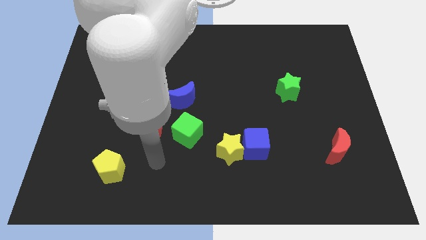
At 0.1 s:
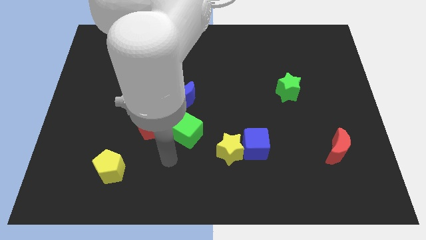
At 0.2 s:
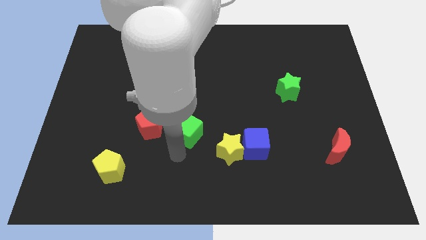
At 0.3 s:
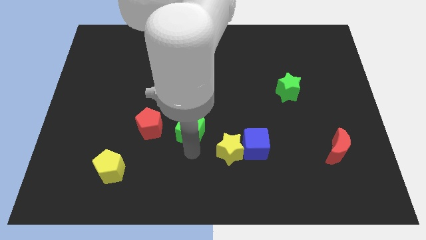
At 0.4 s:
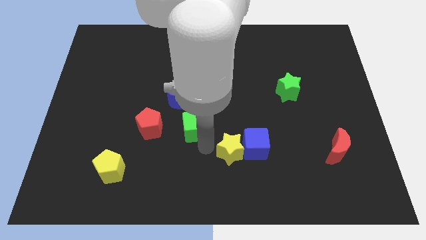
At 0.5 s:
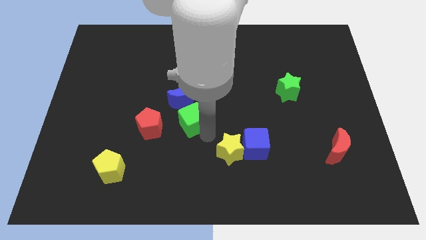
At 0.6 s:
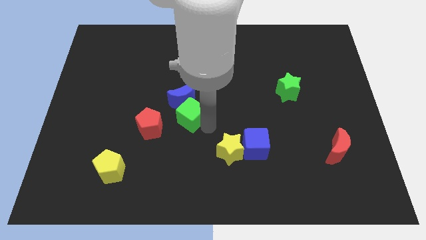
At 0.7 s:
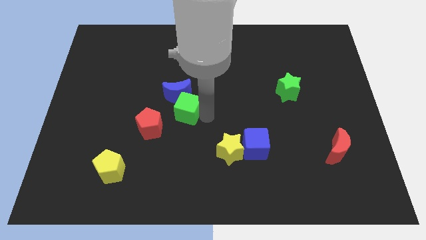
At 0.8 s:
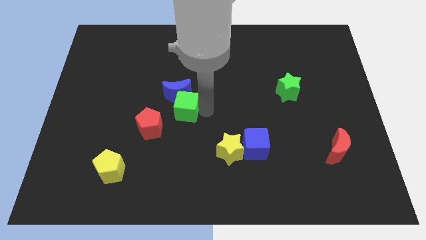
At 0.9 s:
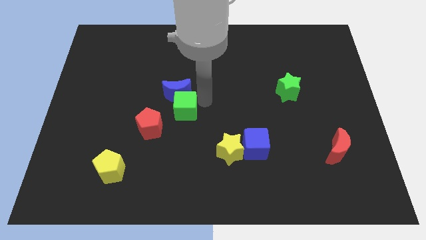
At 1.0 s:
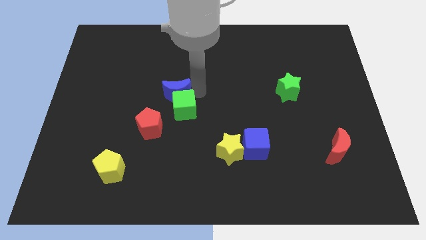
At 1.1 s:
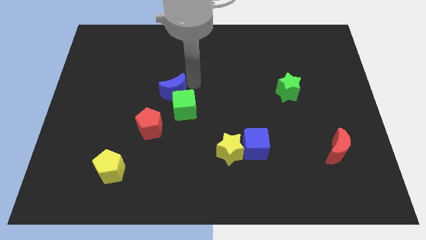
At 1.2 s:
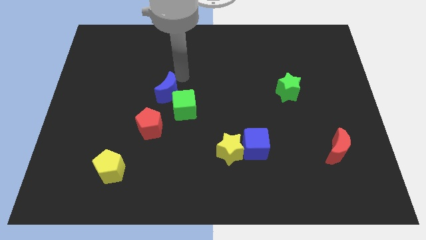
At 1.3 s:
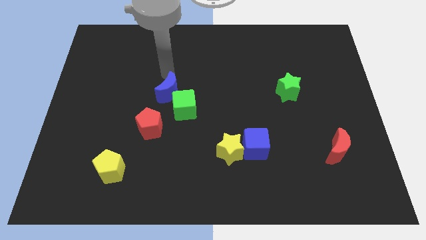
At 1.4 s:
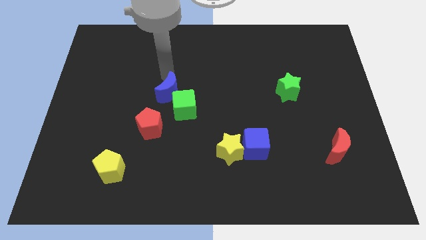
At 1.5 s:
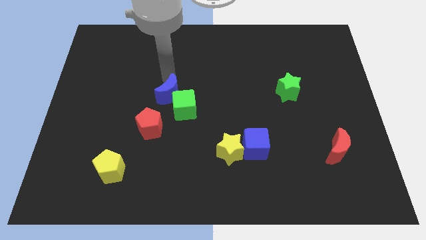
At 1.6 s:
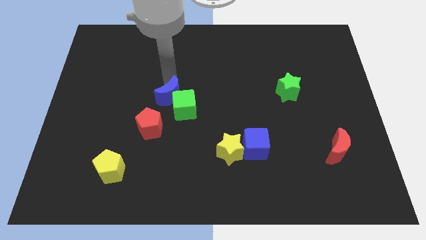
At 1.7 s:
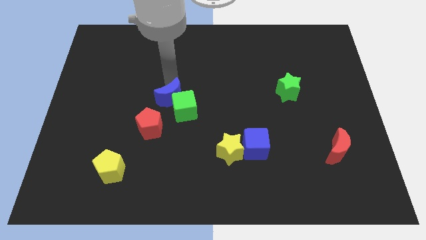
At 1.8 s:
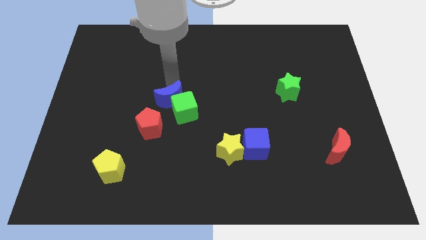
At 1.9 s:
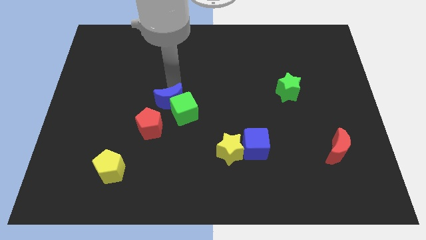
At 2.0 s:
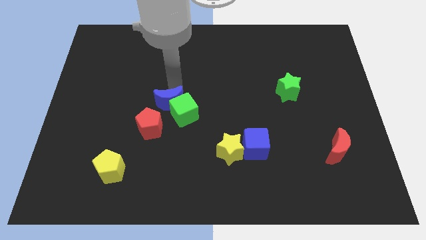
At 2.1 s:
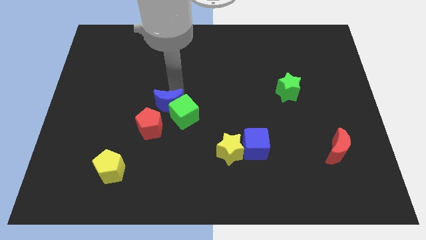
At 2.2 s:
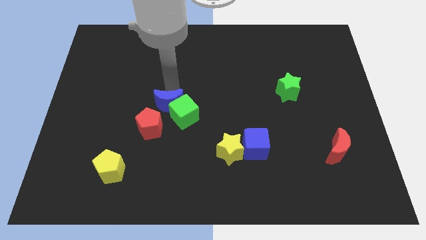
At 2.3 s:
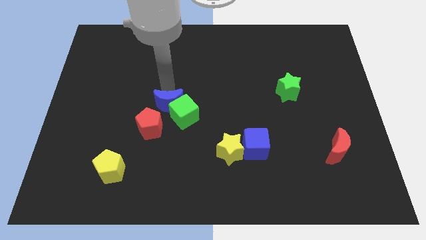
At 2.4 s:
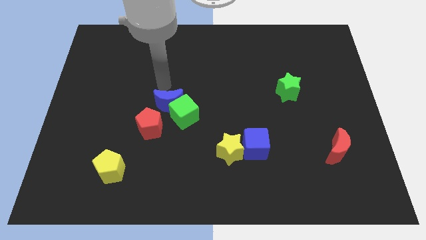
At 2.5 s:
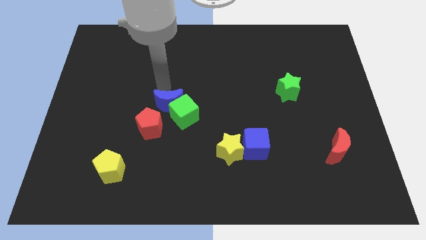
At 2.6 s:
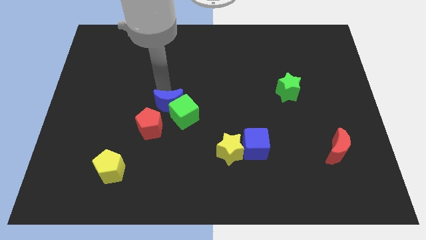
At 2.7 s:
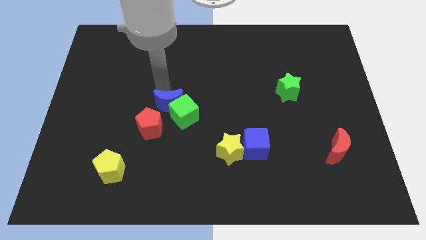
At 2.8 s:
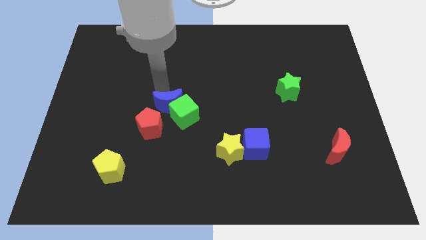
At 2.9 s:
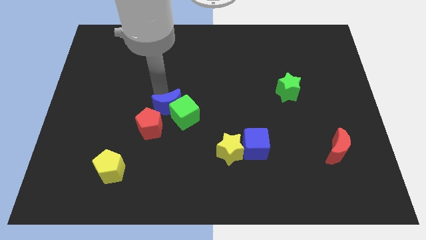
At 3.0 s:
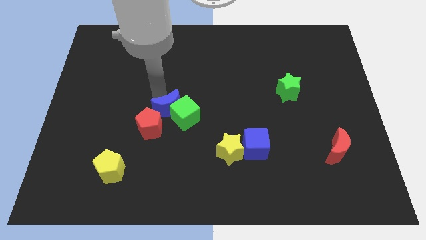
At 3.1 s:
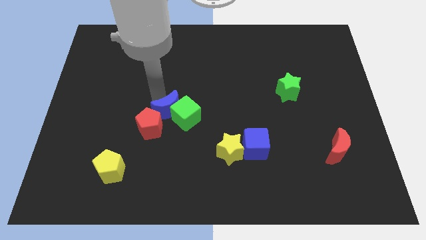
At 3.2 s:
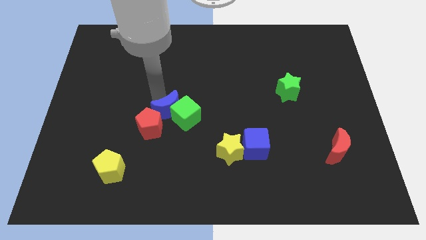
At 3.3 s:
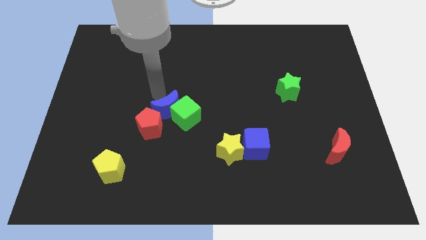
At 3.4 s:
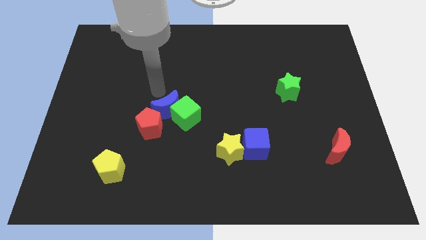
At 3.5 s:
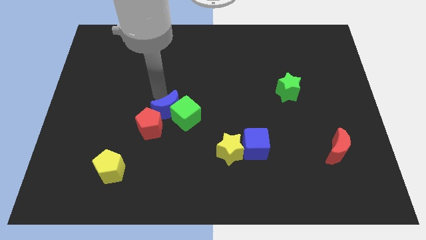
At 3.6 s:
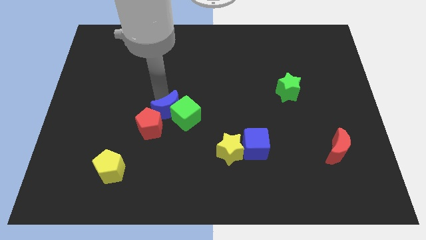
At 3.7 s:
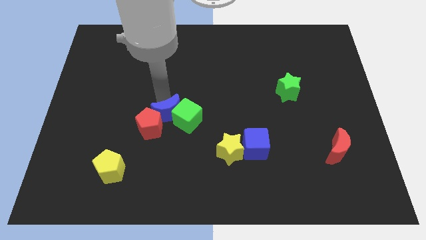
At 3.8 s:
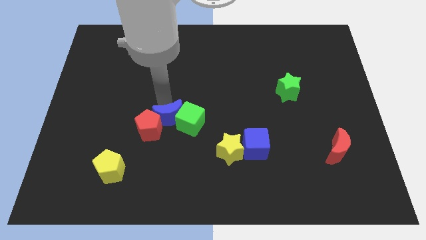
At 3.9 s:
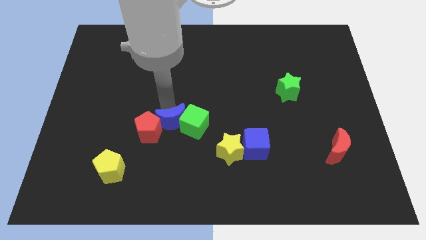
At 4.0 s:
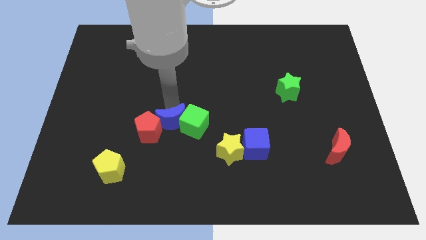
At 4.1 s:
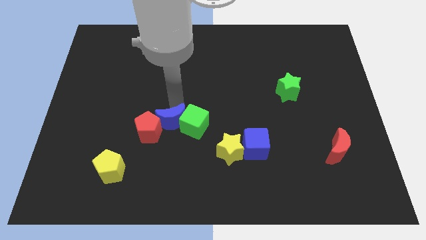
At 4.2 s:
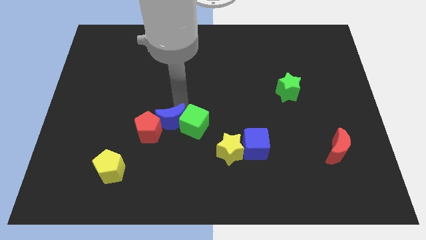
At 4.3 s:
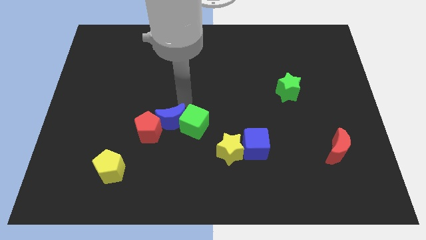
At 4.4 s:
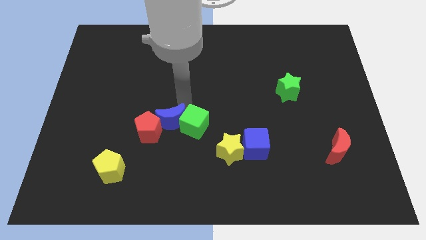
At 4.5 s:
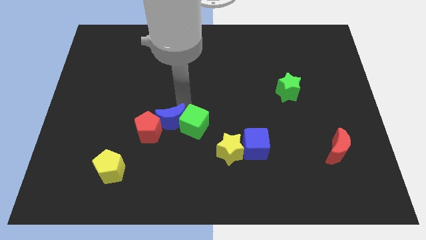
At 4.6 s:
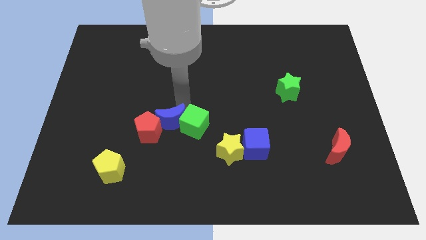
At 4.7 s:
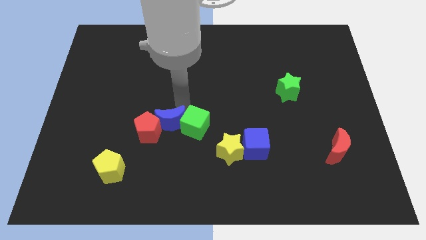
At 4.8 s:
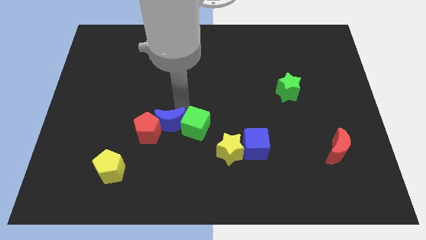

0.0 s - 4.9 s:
slightly slide the blue moon down
